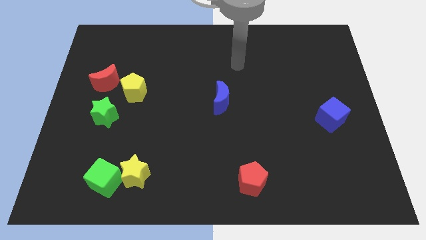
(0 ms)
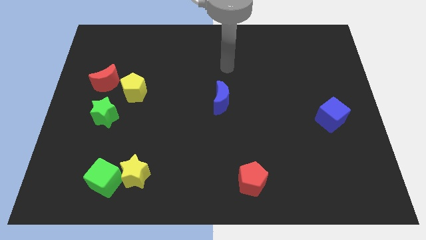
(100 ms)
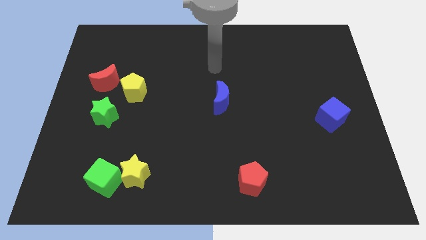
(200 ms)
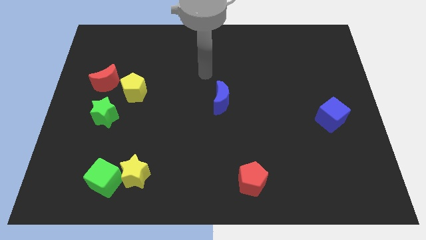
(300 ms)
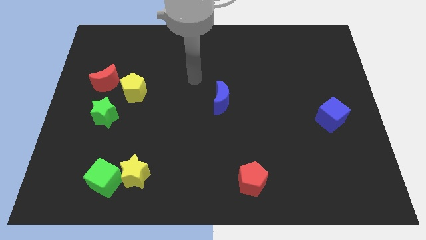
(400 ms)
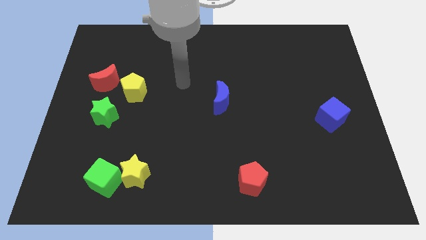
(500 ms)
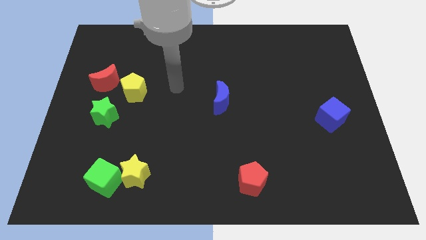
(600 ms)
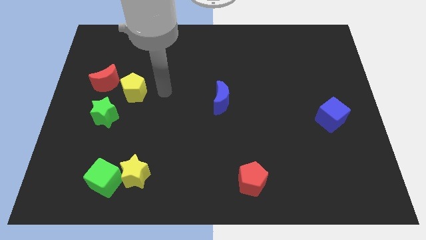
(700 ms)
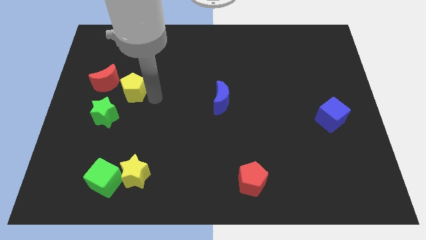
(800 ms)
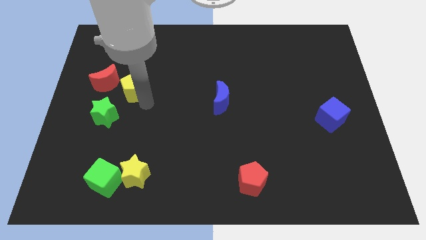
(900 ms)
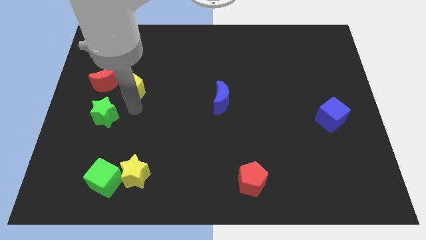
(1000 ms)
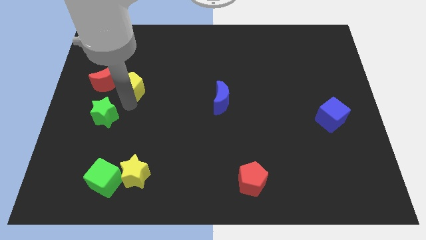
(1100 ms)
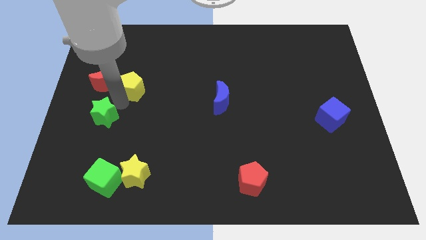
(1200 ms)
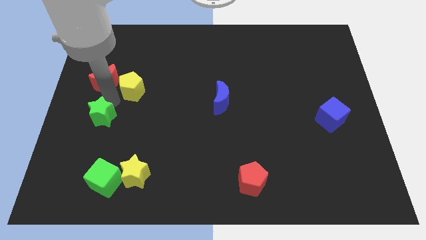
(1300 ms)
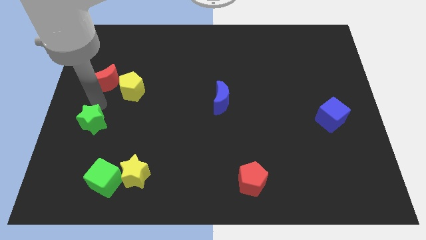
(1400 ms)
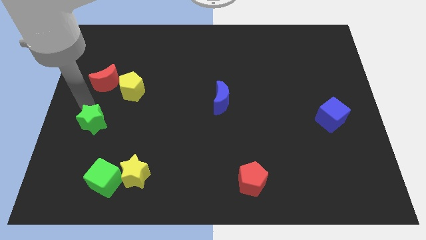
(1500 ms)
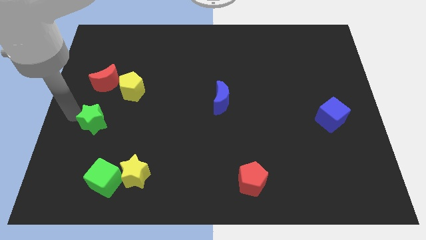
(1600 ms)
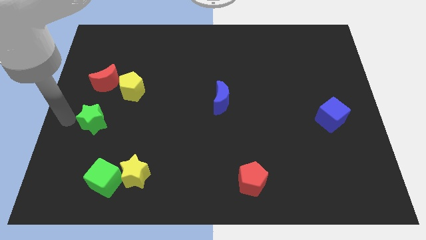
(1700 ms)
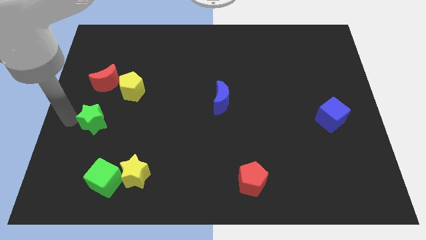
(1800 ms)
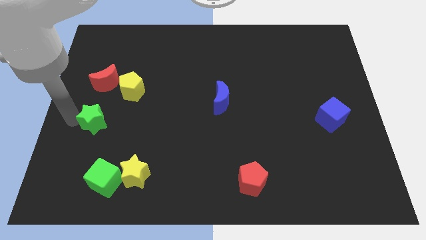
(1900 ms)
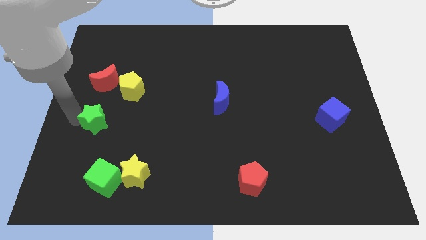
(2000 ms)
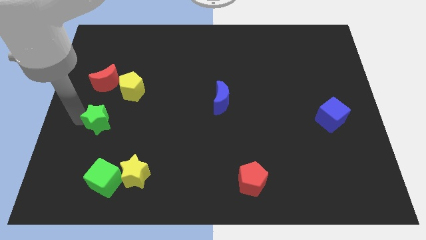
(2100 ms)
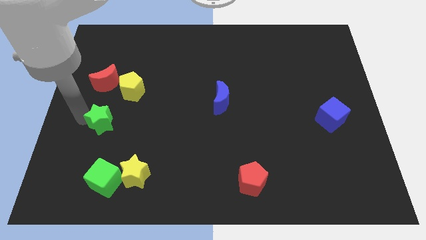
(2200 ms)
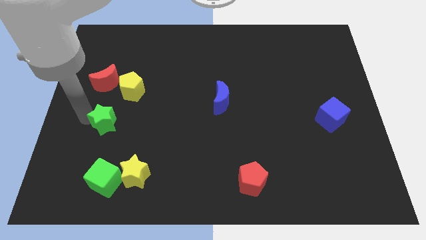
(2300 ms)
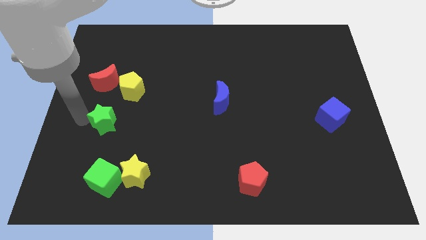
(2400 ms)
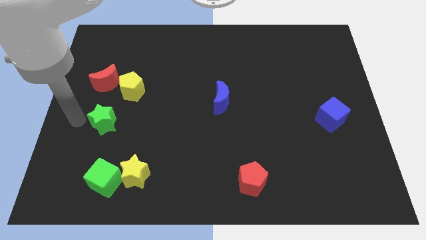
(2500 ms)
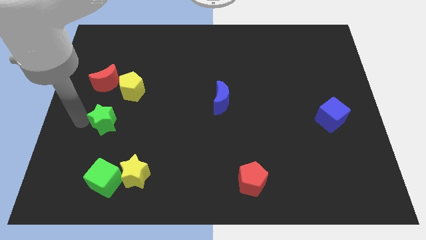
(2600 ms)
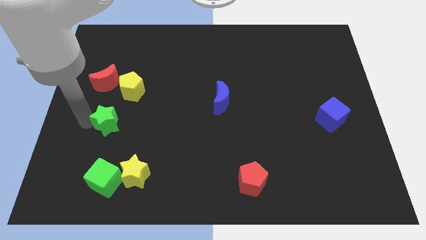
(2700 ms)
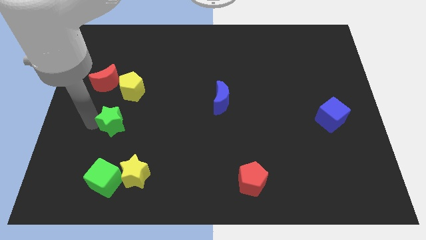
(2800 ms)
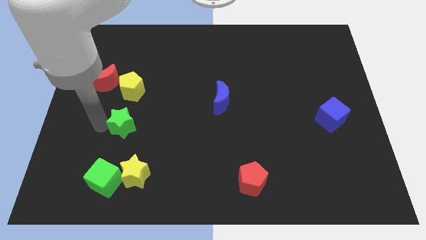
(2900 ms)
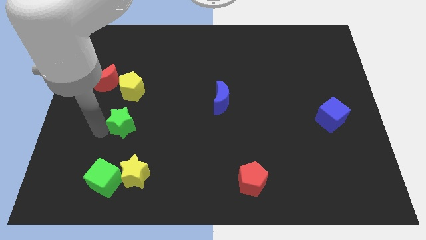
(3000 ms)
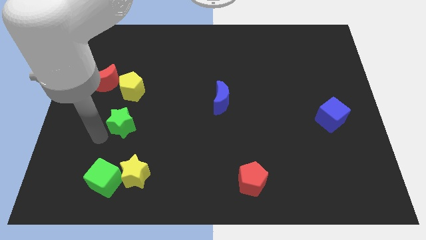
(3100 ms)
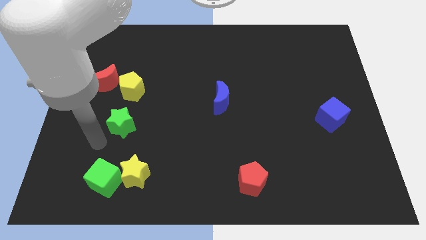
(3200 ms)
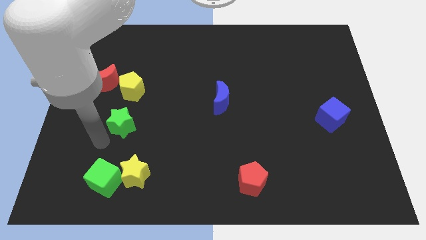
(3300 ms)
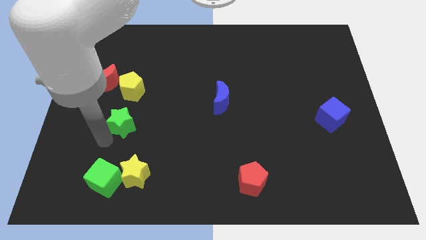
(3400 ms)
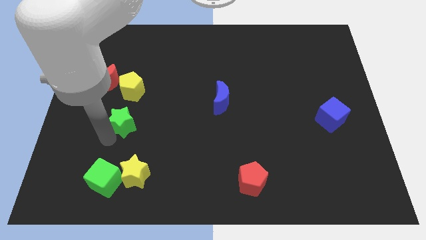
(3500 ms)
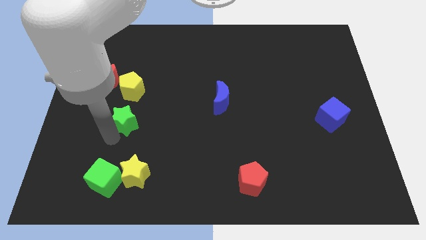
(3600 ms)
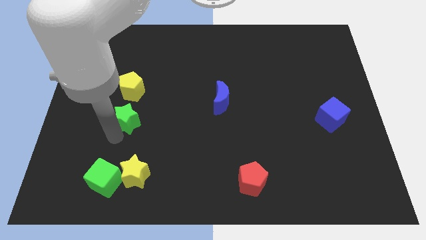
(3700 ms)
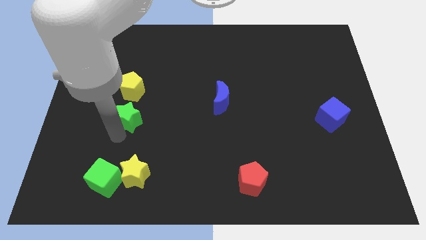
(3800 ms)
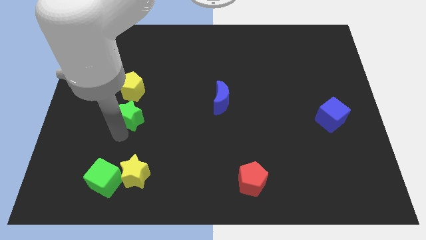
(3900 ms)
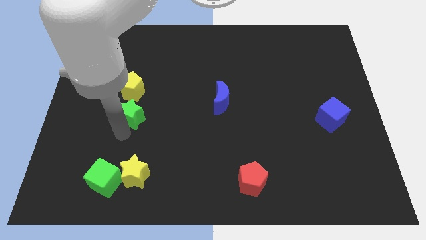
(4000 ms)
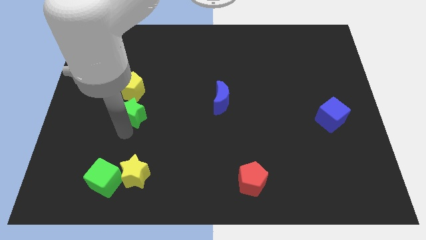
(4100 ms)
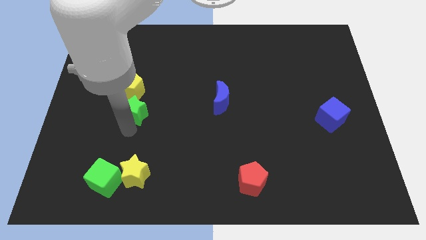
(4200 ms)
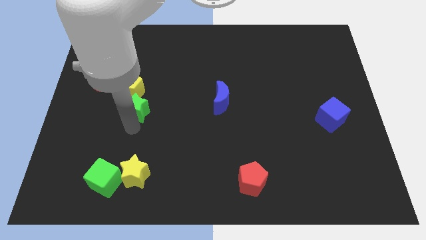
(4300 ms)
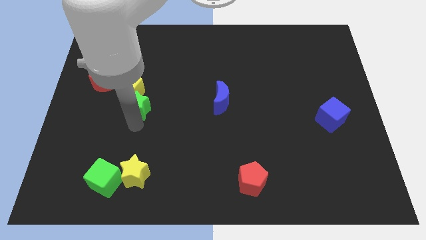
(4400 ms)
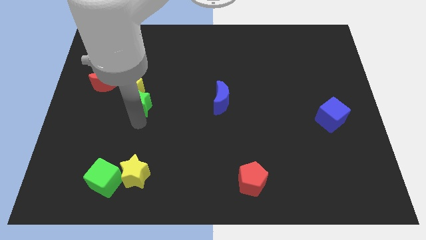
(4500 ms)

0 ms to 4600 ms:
move the green star slightly up and right diagonally

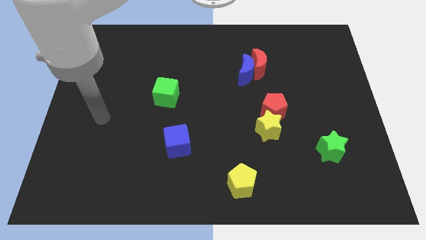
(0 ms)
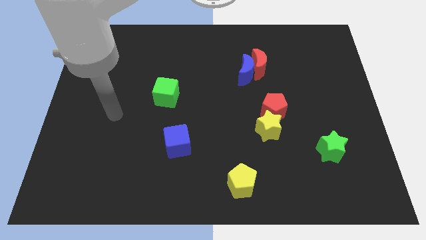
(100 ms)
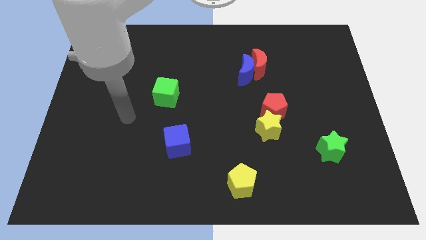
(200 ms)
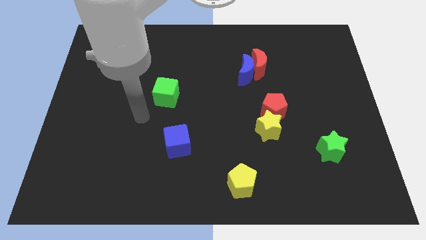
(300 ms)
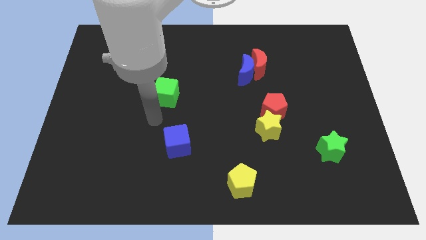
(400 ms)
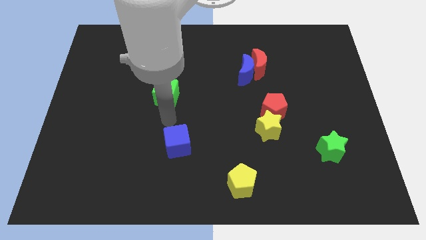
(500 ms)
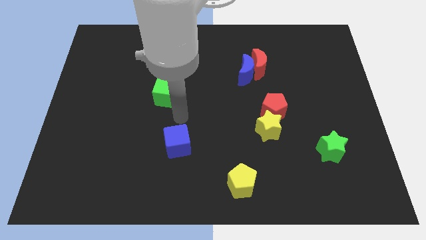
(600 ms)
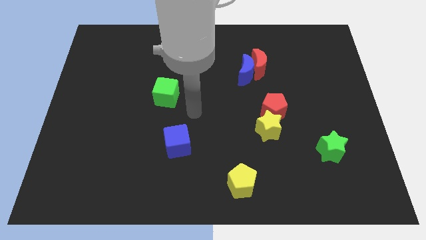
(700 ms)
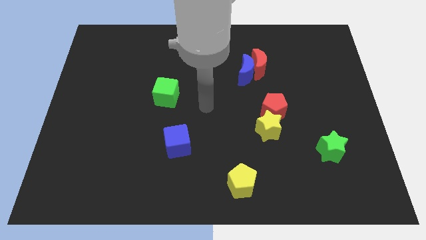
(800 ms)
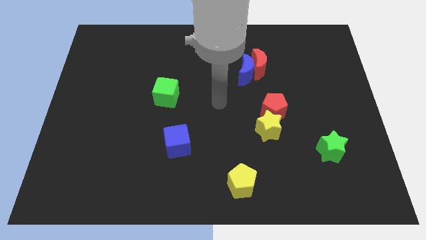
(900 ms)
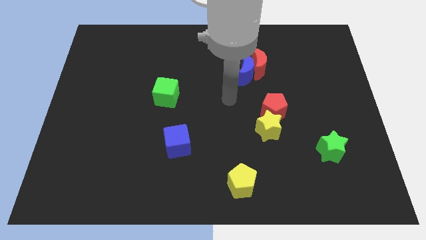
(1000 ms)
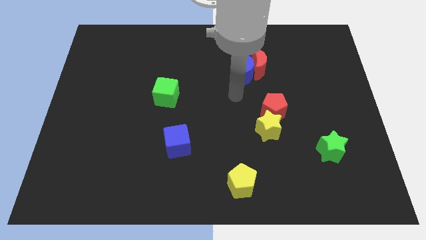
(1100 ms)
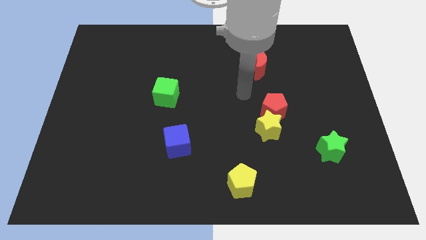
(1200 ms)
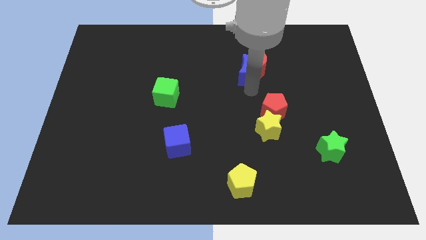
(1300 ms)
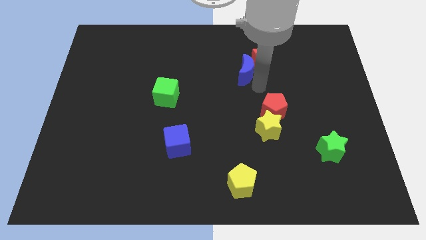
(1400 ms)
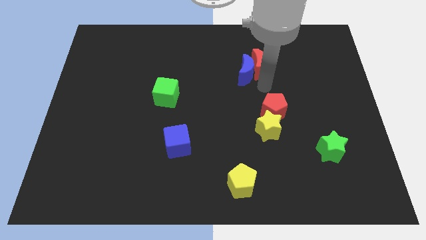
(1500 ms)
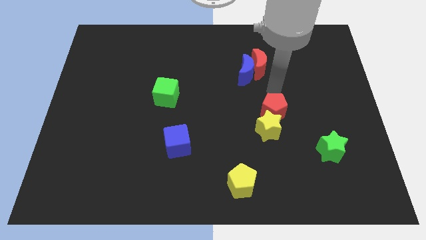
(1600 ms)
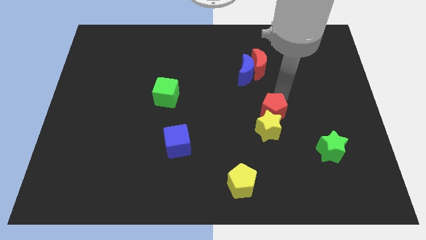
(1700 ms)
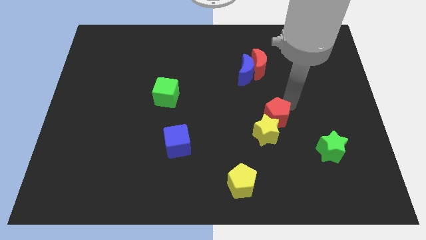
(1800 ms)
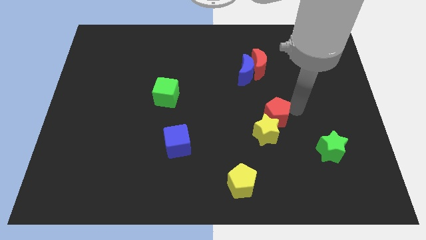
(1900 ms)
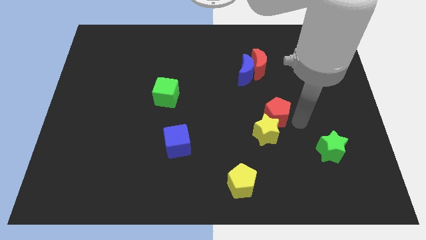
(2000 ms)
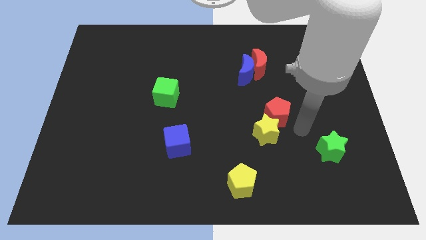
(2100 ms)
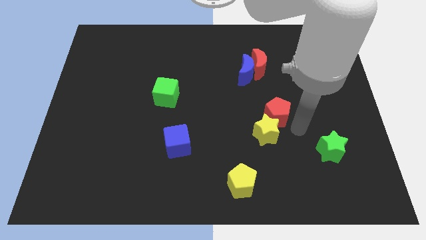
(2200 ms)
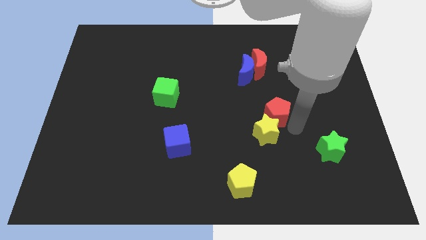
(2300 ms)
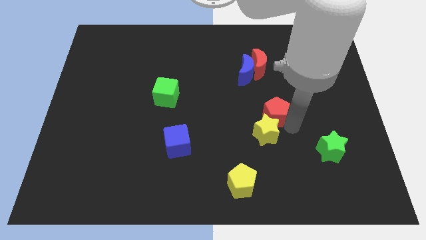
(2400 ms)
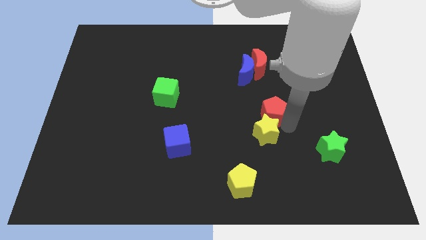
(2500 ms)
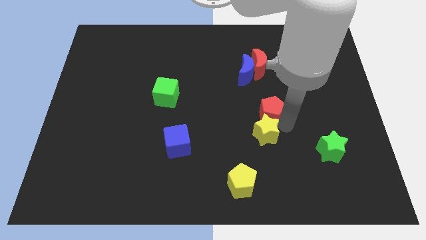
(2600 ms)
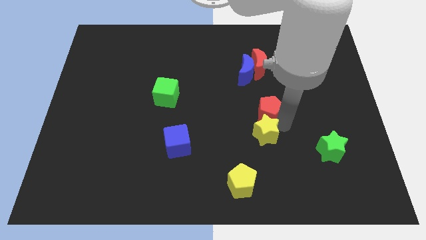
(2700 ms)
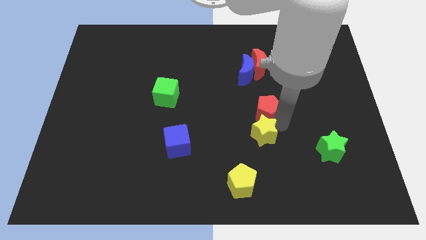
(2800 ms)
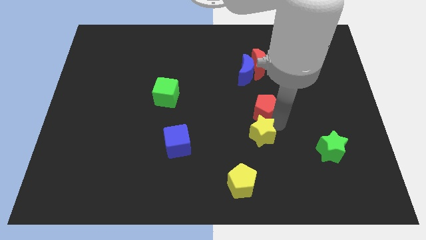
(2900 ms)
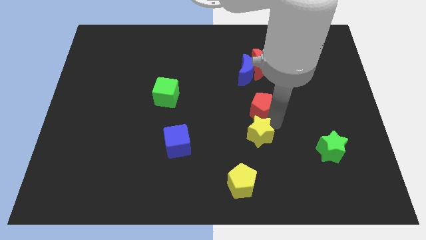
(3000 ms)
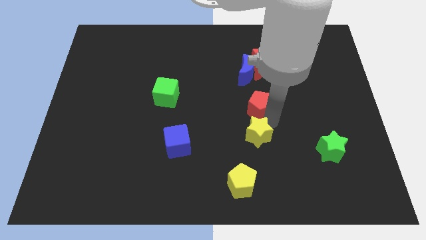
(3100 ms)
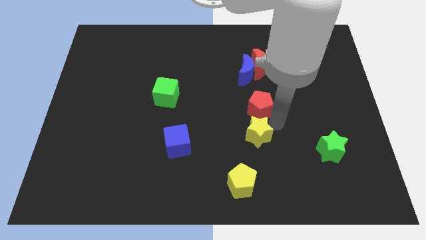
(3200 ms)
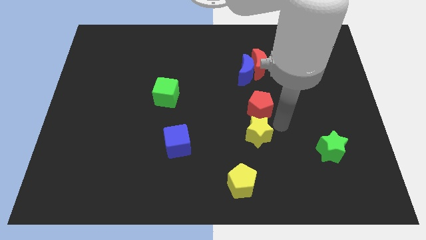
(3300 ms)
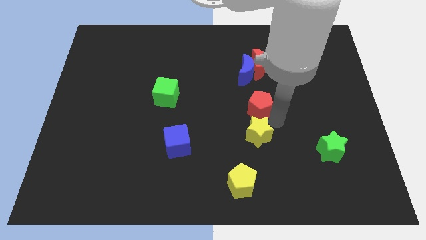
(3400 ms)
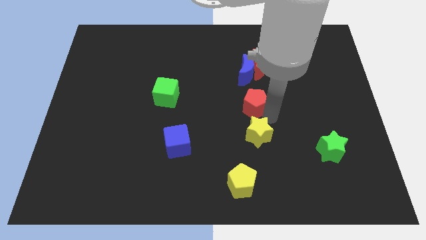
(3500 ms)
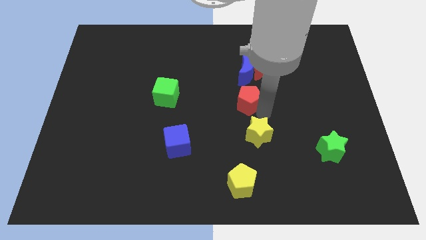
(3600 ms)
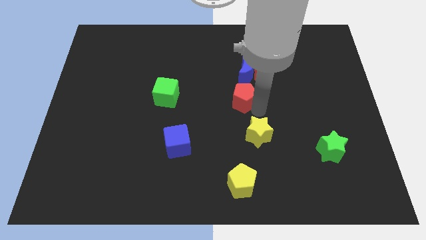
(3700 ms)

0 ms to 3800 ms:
slightly push the red pentagon upwards and left diagonally
